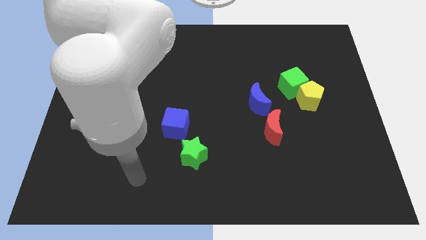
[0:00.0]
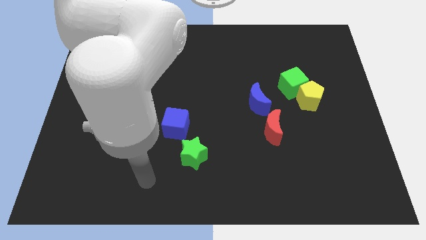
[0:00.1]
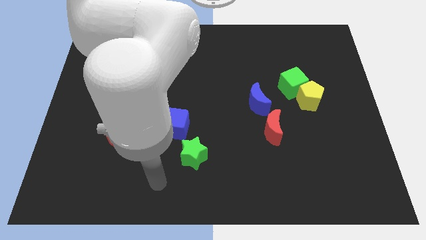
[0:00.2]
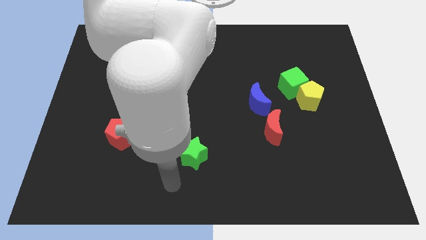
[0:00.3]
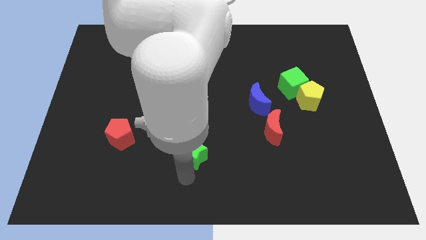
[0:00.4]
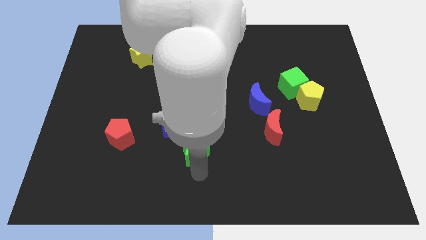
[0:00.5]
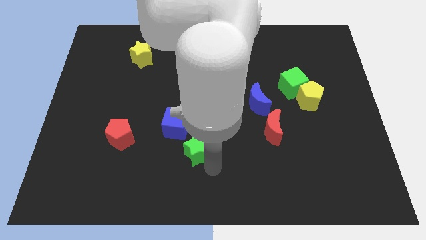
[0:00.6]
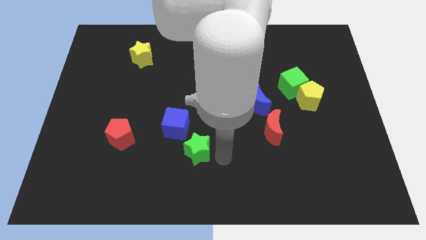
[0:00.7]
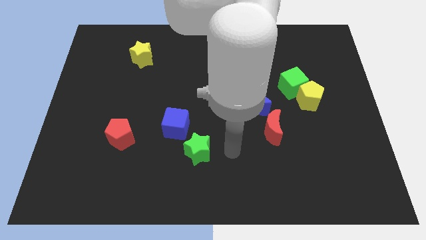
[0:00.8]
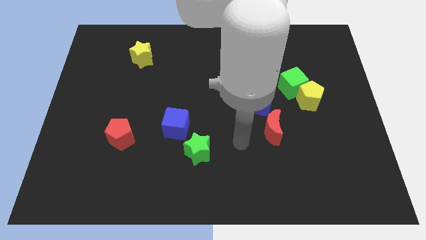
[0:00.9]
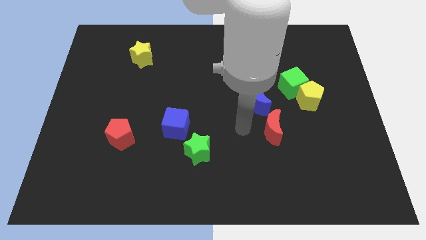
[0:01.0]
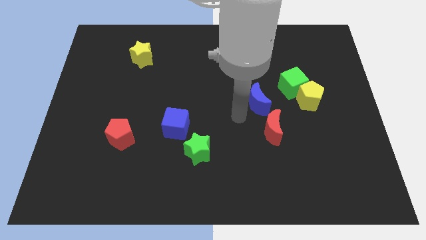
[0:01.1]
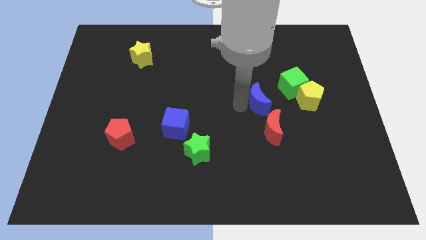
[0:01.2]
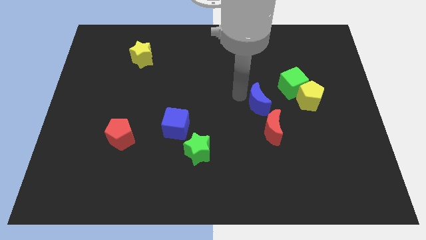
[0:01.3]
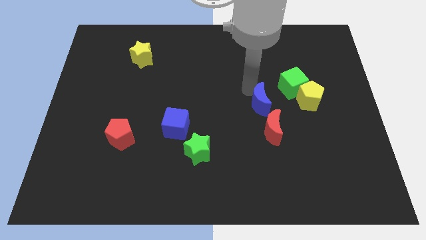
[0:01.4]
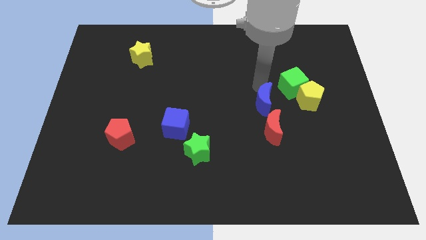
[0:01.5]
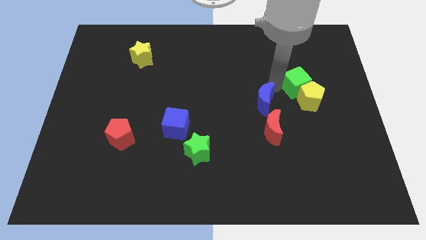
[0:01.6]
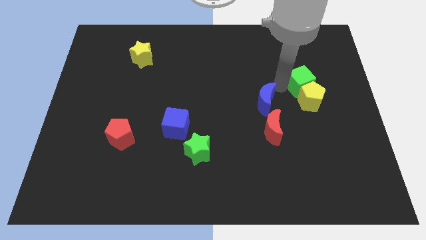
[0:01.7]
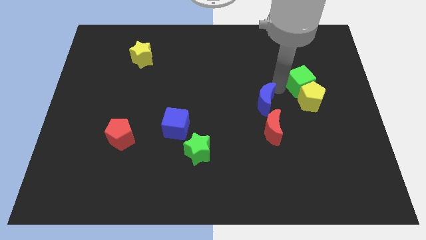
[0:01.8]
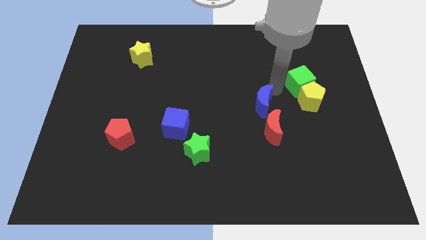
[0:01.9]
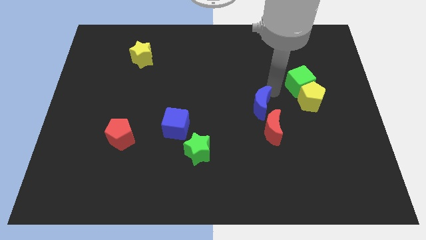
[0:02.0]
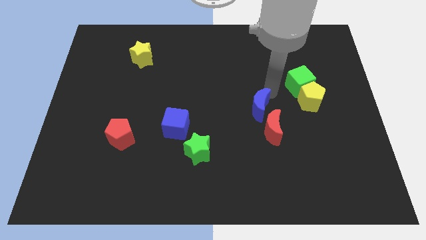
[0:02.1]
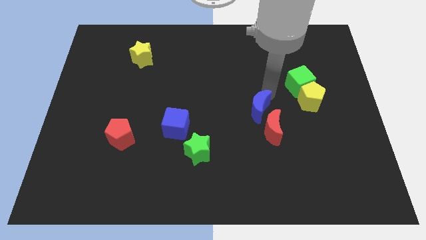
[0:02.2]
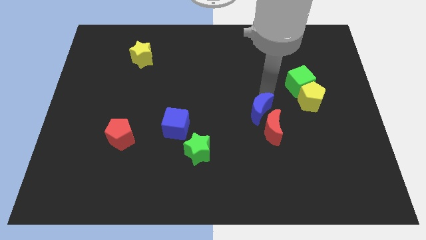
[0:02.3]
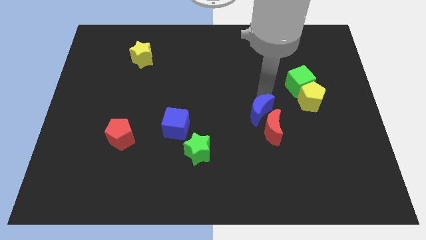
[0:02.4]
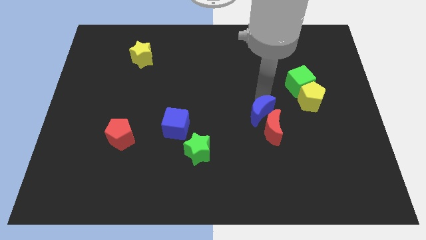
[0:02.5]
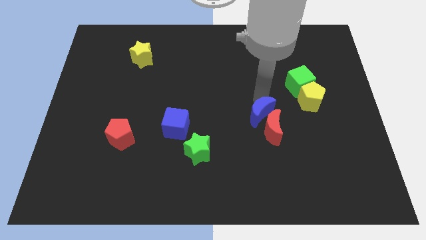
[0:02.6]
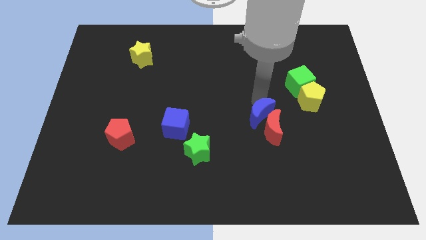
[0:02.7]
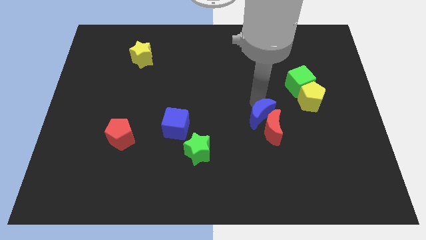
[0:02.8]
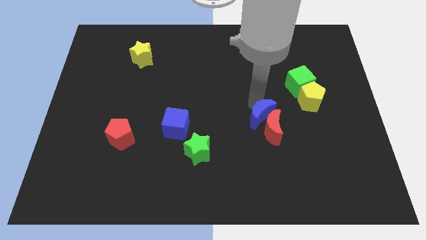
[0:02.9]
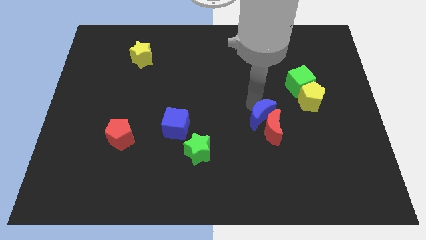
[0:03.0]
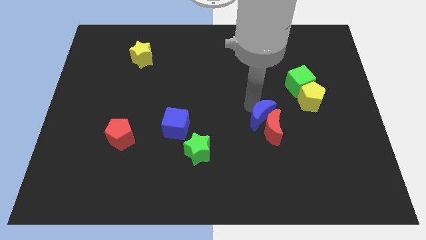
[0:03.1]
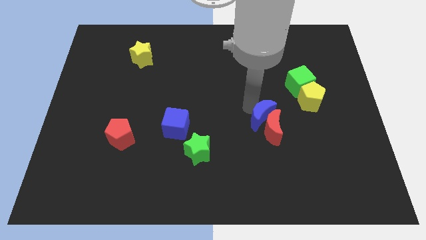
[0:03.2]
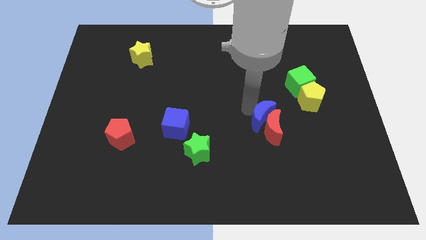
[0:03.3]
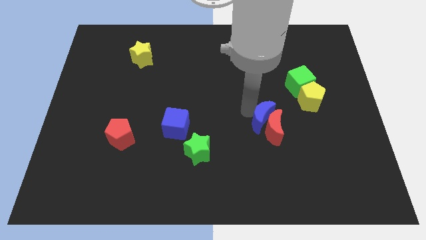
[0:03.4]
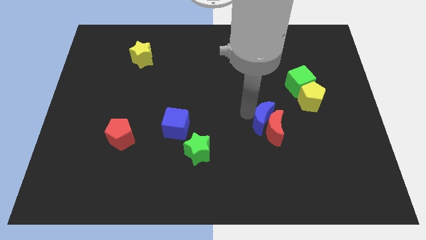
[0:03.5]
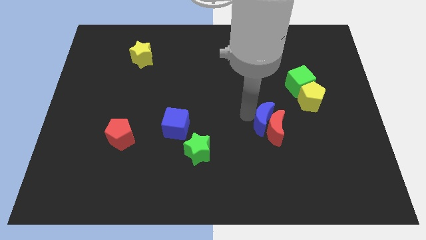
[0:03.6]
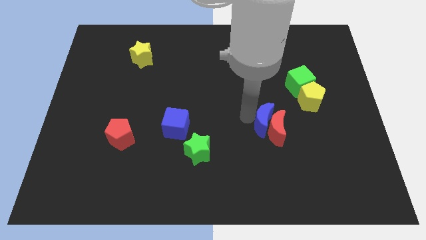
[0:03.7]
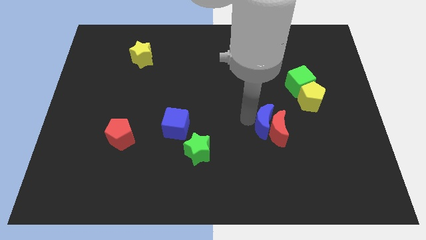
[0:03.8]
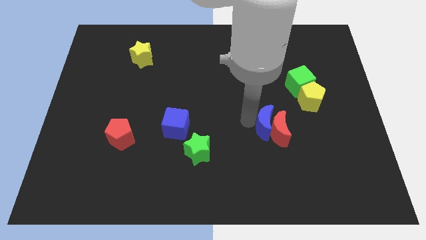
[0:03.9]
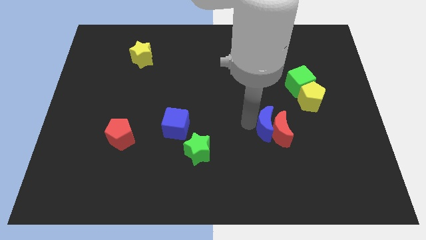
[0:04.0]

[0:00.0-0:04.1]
push the blue moon a bit downwards

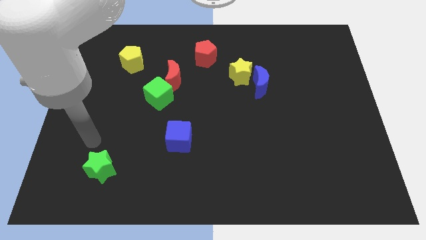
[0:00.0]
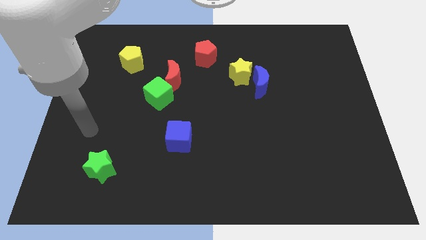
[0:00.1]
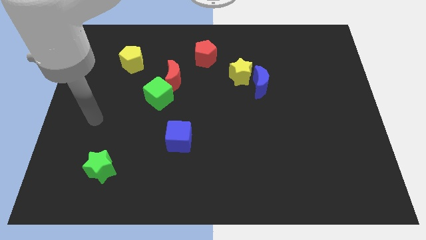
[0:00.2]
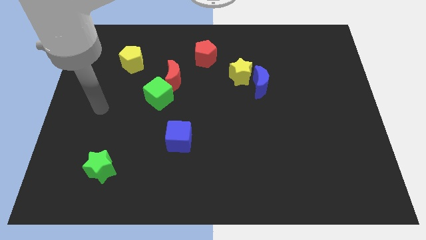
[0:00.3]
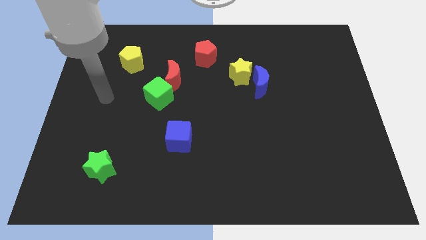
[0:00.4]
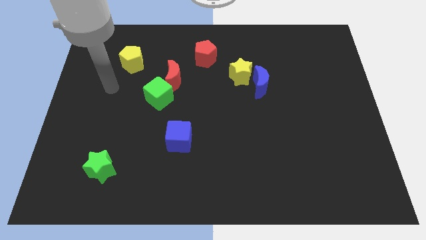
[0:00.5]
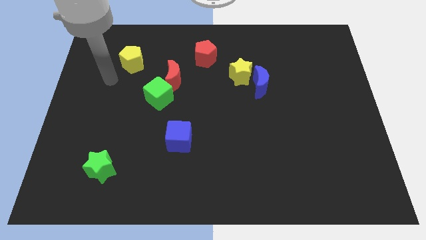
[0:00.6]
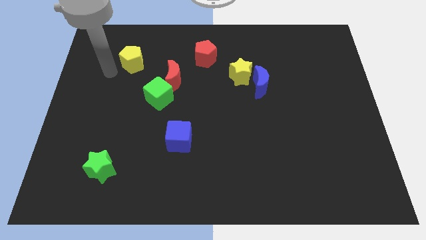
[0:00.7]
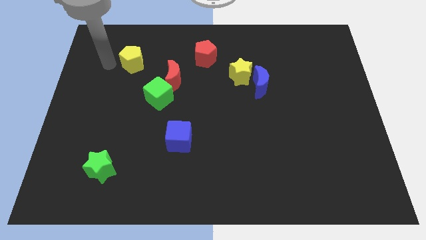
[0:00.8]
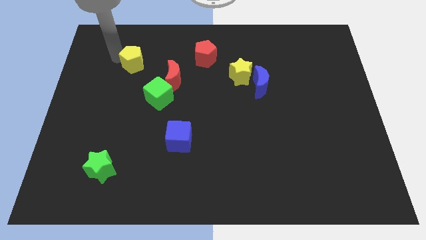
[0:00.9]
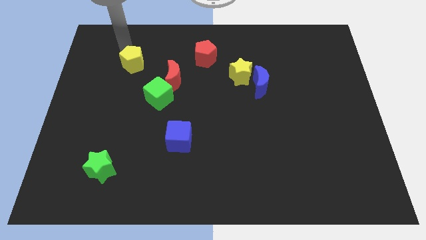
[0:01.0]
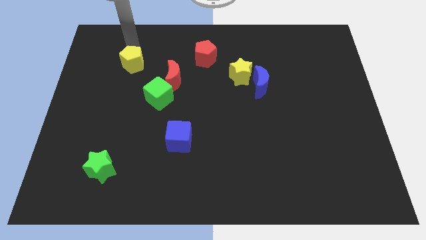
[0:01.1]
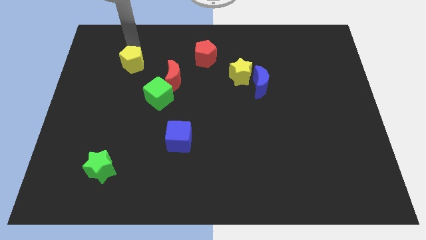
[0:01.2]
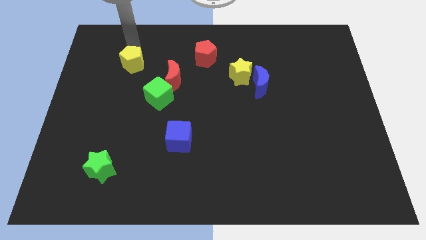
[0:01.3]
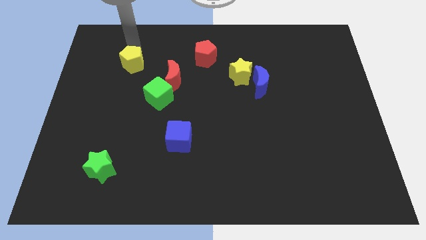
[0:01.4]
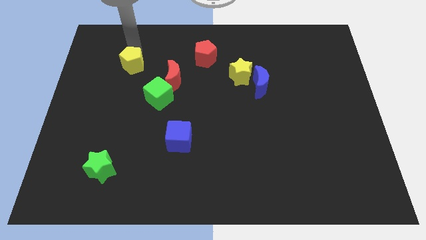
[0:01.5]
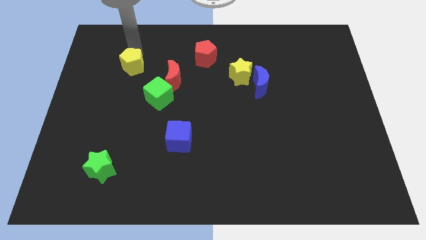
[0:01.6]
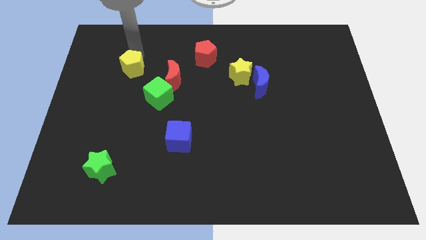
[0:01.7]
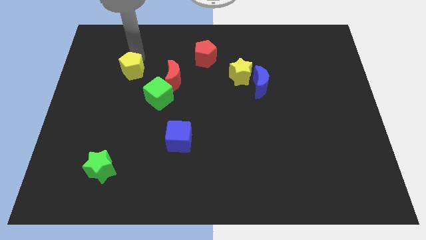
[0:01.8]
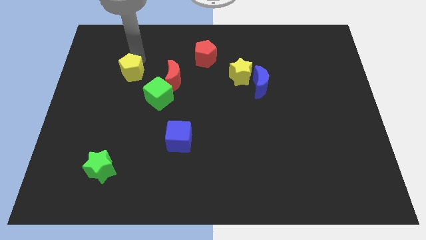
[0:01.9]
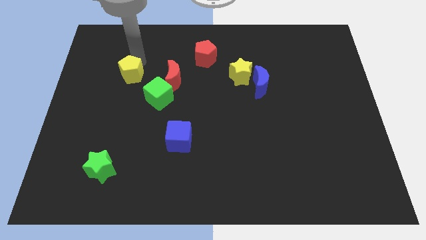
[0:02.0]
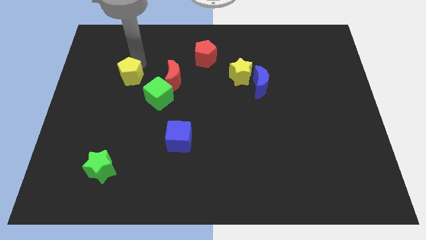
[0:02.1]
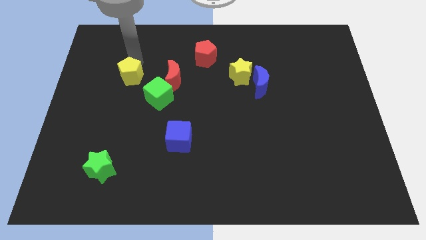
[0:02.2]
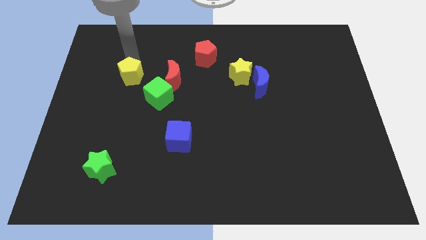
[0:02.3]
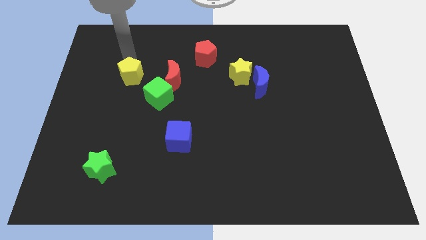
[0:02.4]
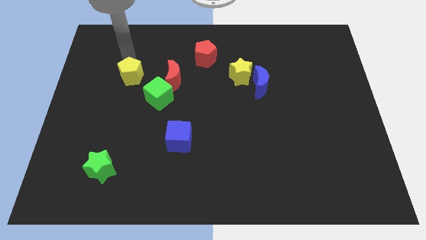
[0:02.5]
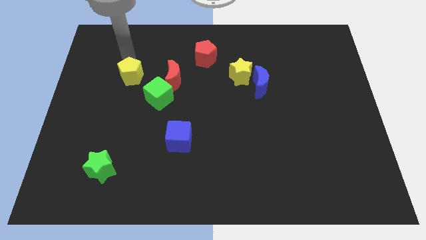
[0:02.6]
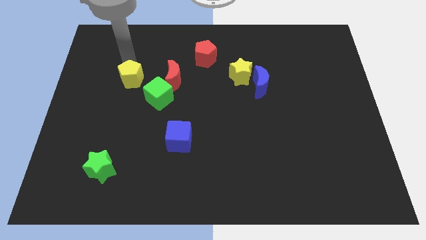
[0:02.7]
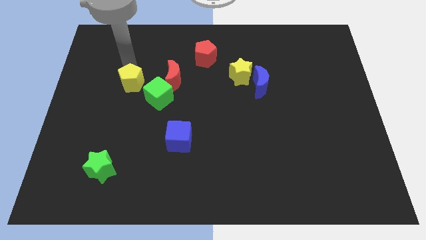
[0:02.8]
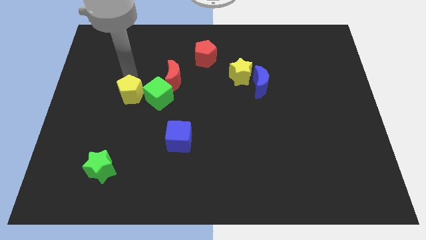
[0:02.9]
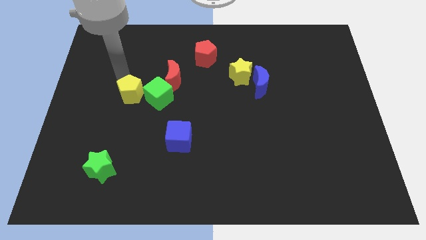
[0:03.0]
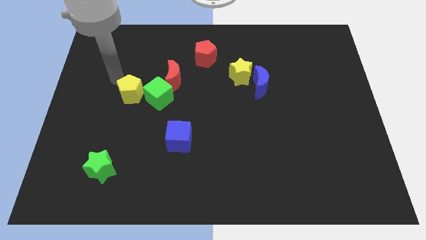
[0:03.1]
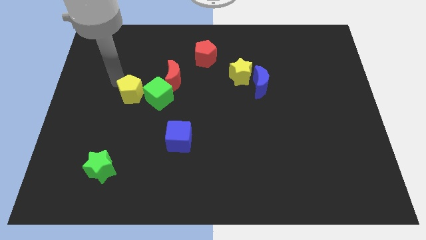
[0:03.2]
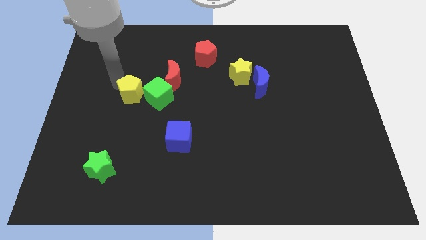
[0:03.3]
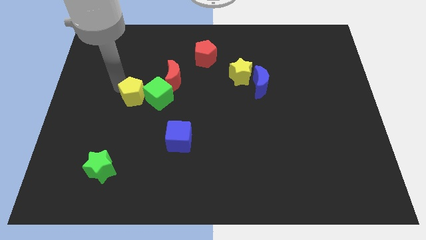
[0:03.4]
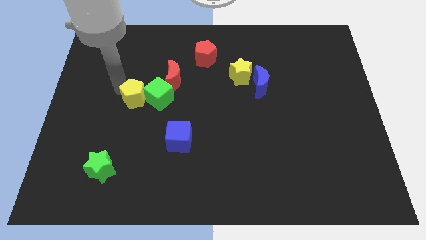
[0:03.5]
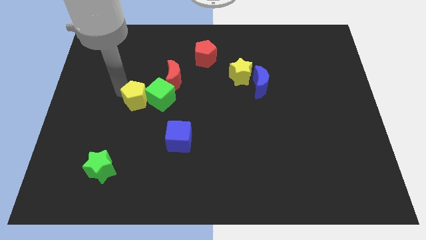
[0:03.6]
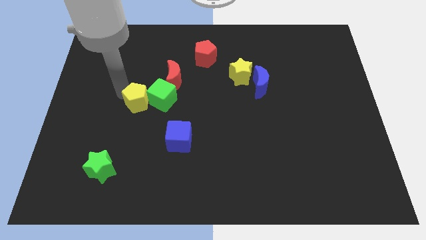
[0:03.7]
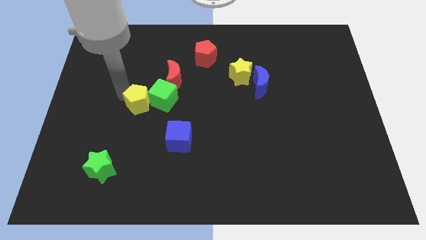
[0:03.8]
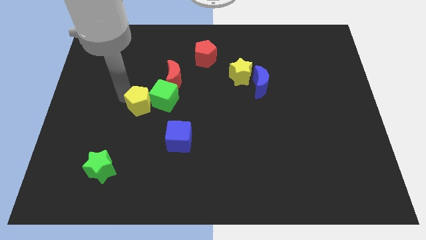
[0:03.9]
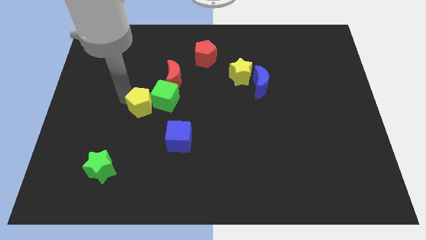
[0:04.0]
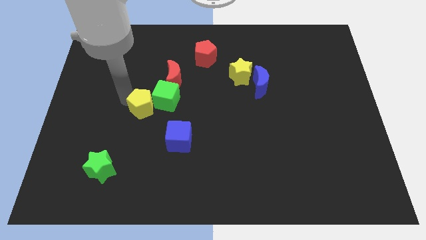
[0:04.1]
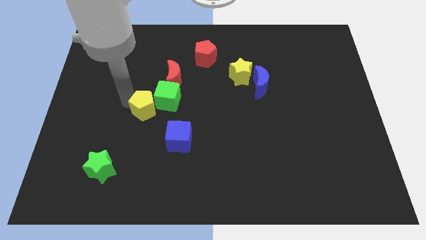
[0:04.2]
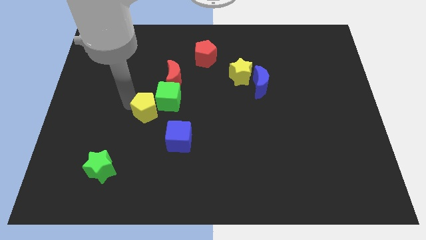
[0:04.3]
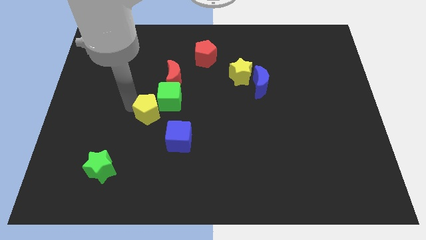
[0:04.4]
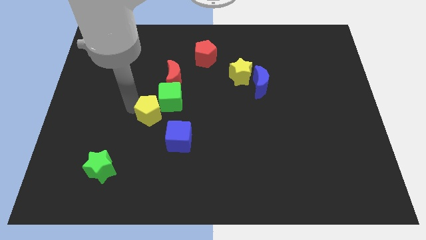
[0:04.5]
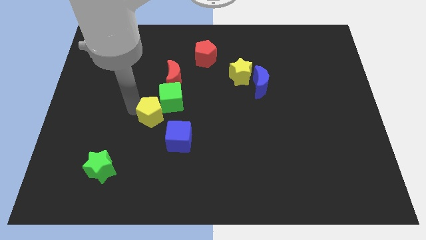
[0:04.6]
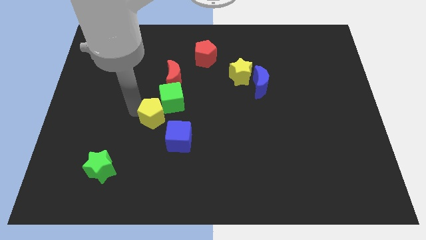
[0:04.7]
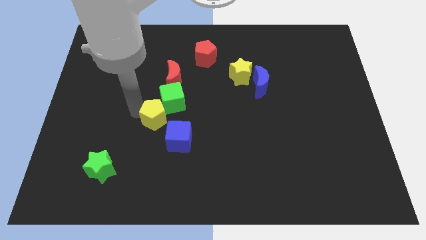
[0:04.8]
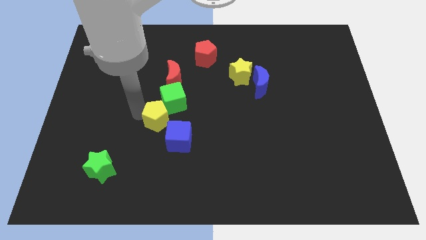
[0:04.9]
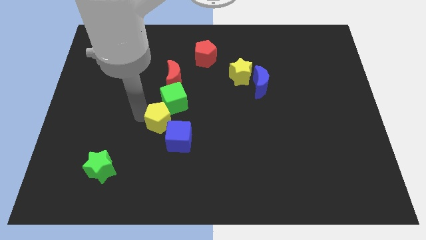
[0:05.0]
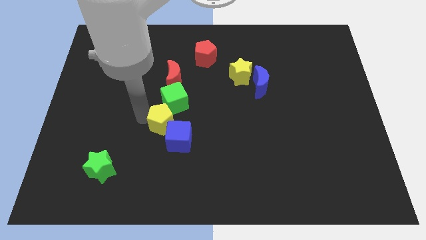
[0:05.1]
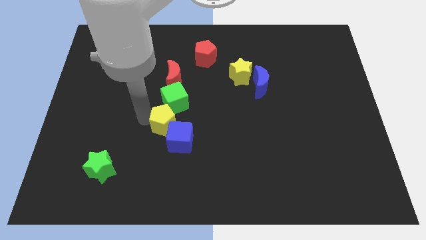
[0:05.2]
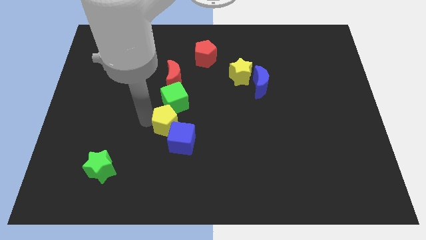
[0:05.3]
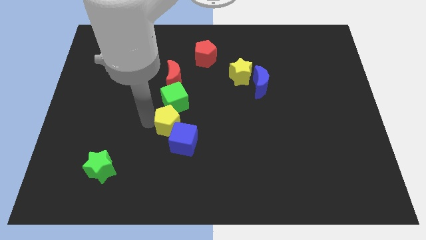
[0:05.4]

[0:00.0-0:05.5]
push the yellow pentagon downwards and then right
